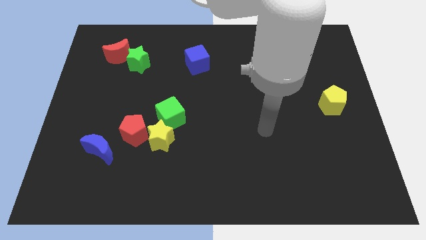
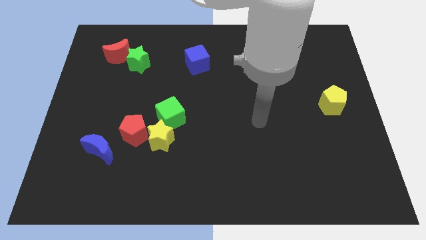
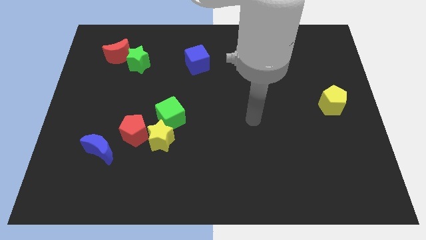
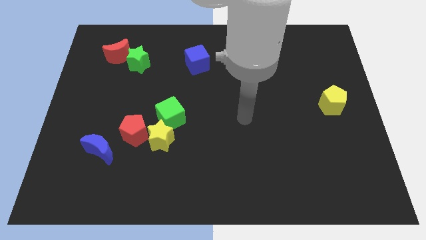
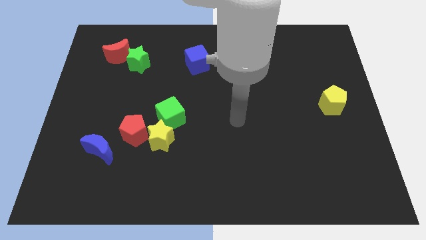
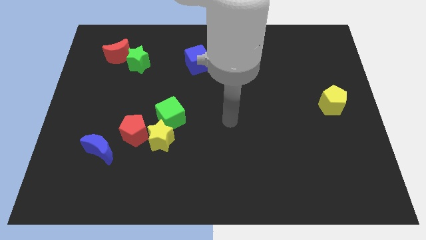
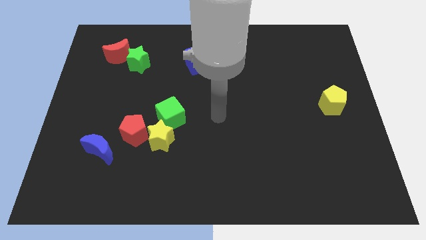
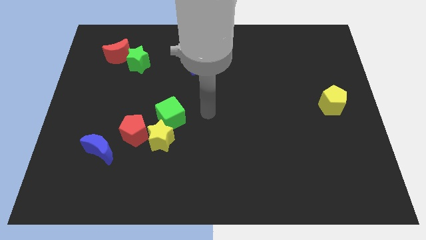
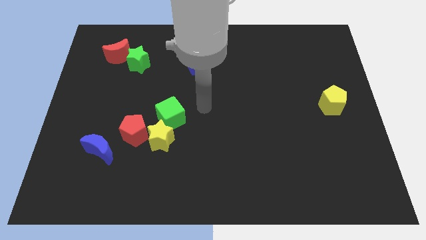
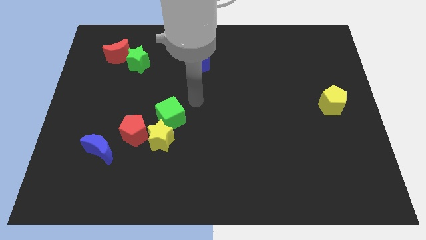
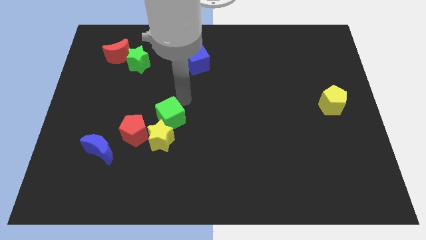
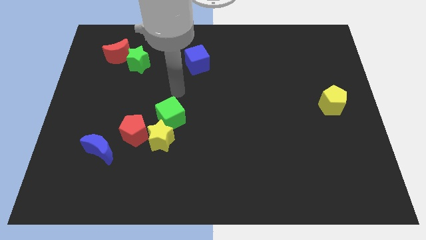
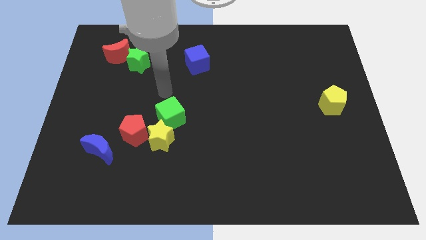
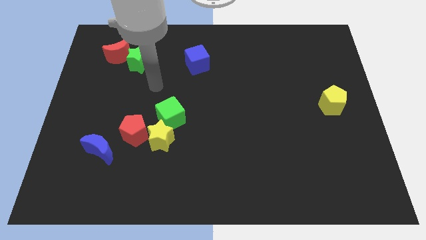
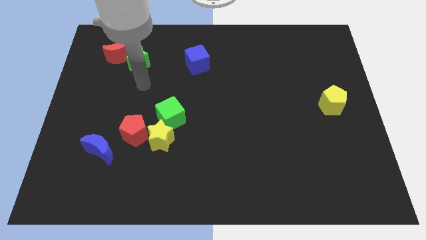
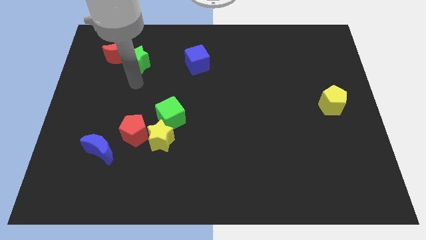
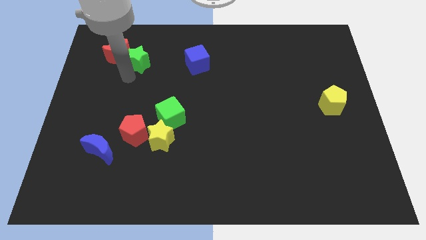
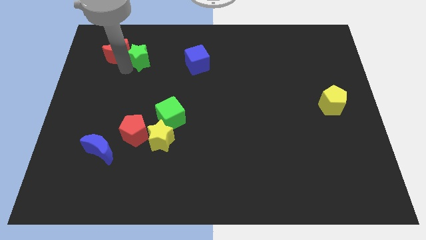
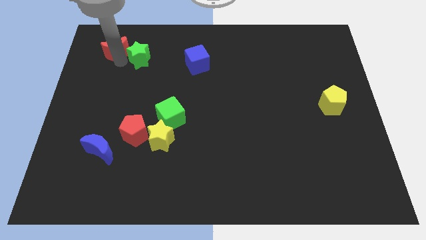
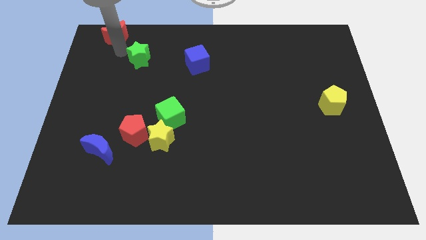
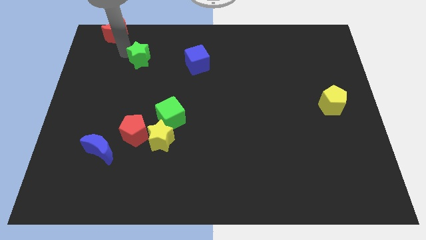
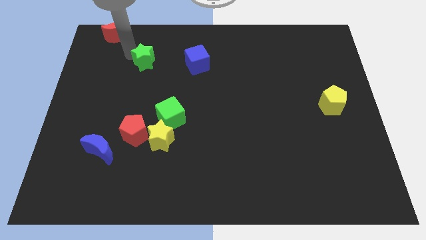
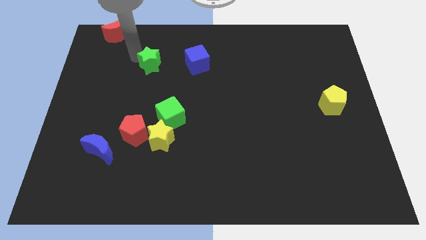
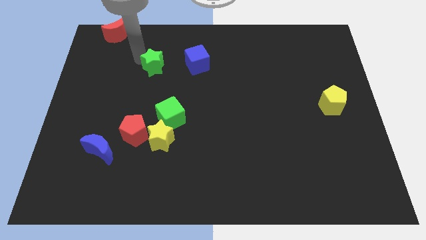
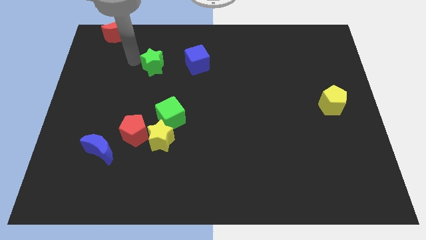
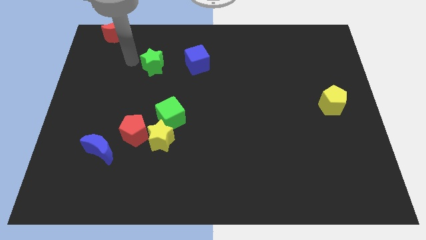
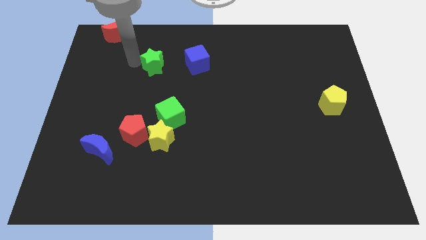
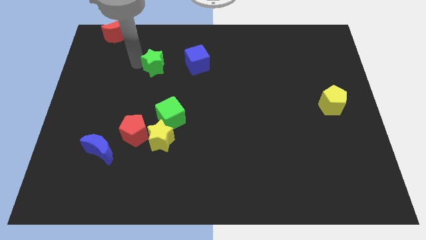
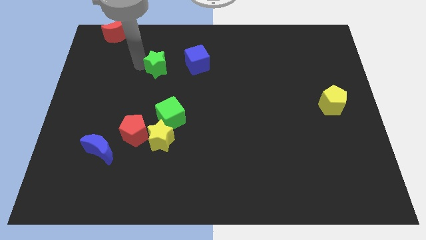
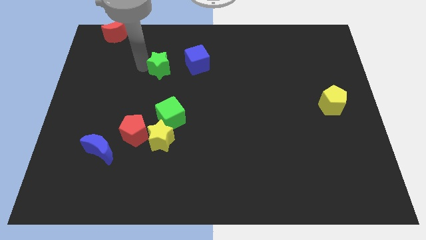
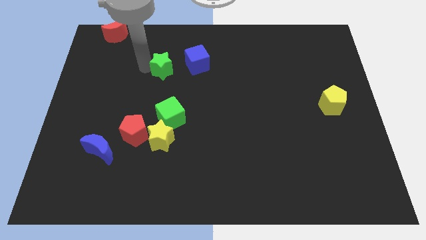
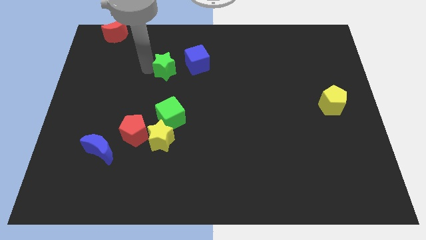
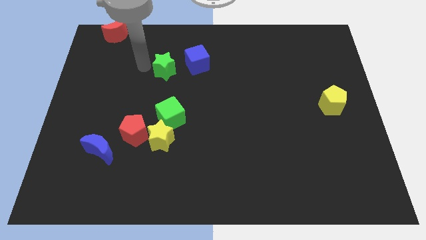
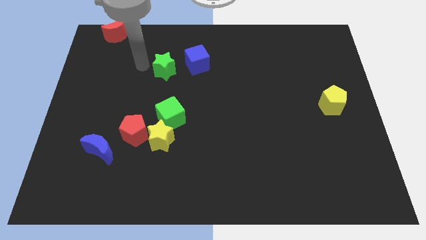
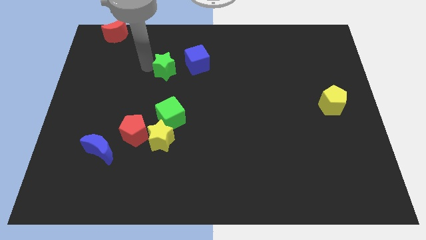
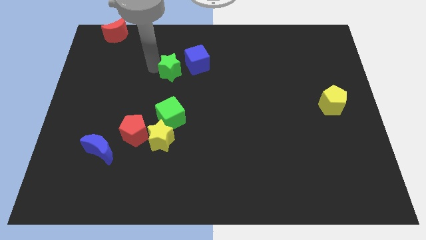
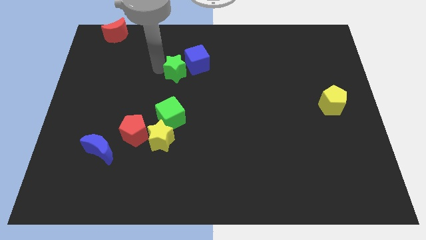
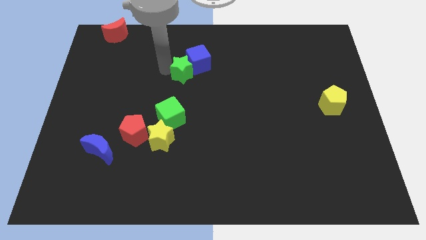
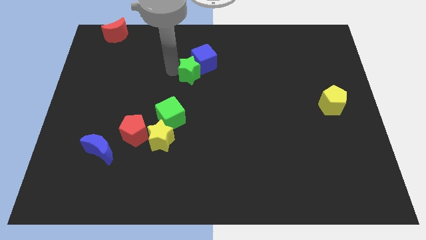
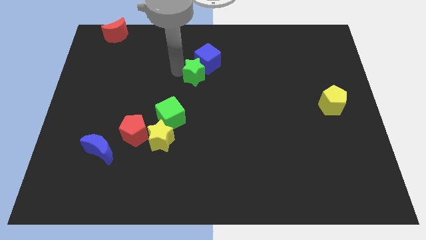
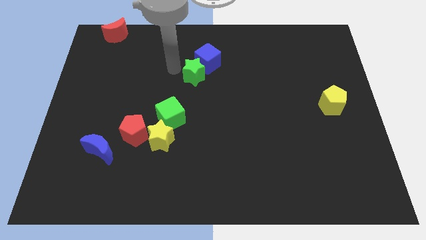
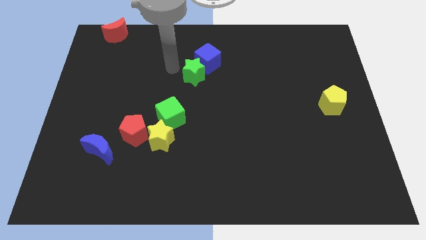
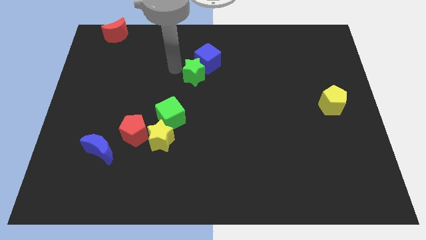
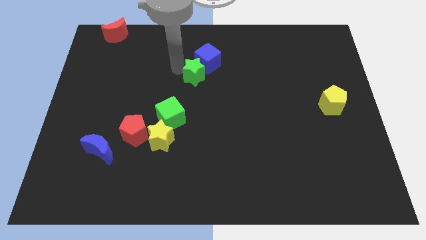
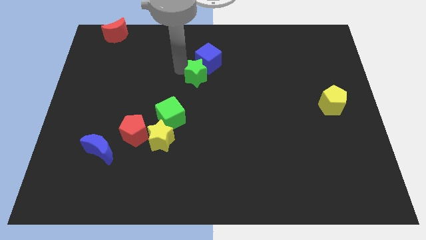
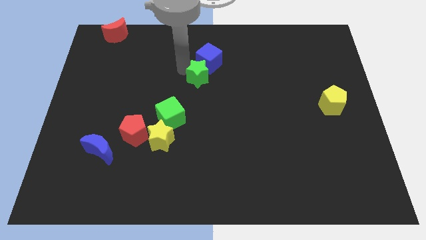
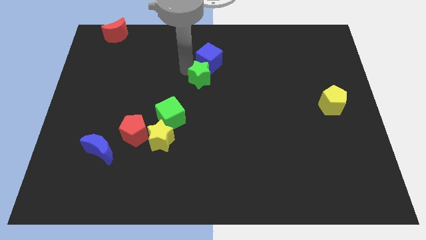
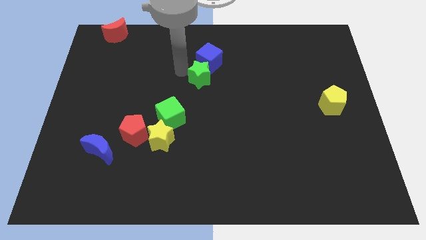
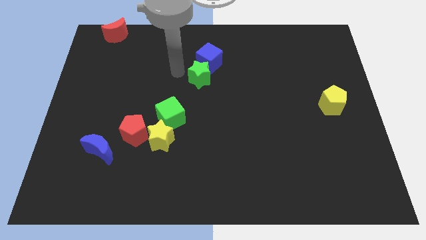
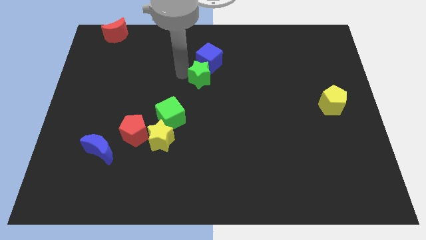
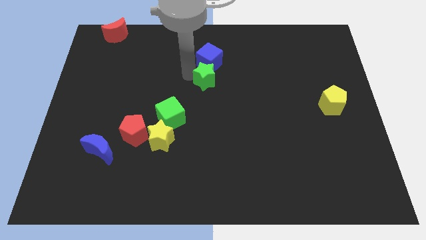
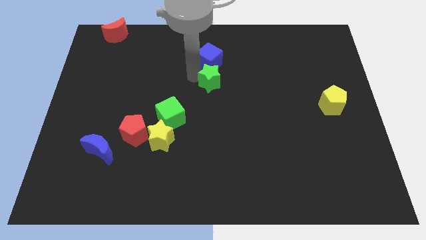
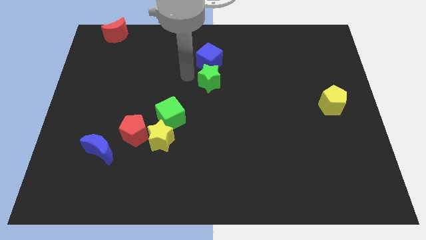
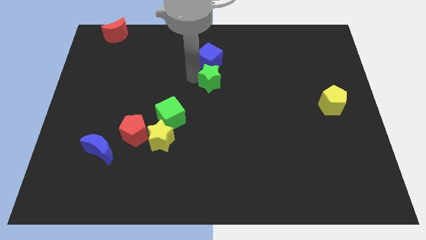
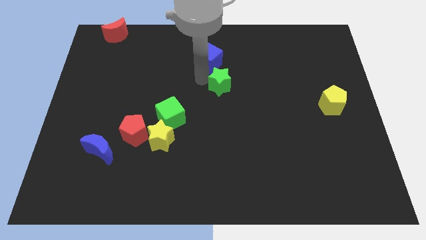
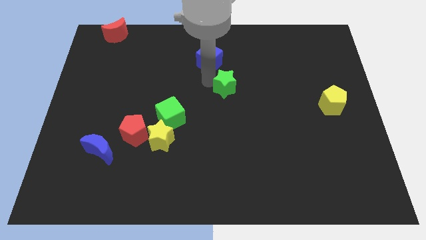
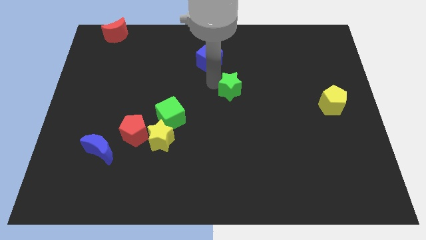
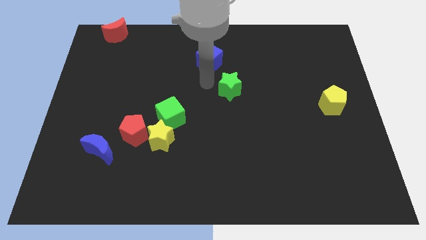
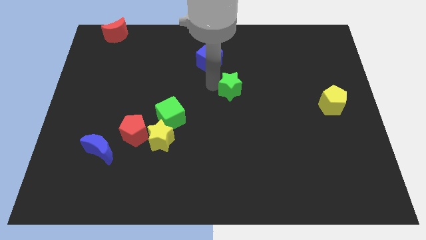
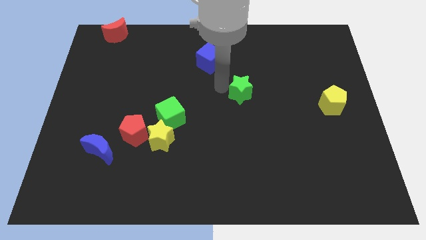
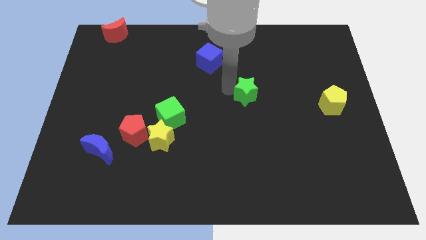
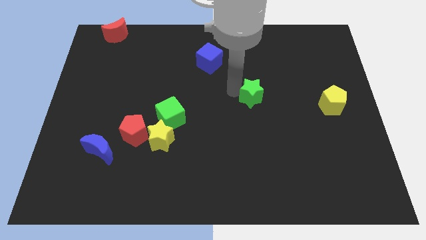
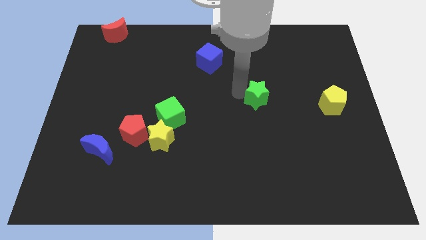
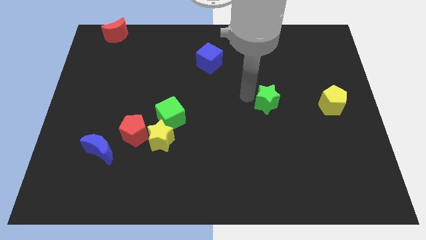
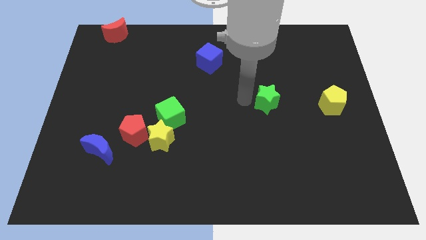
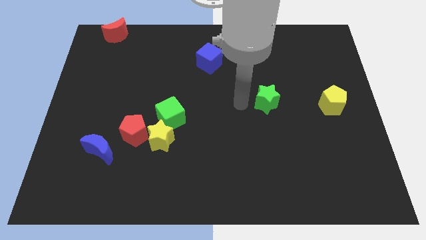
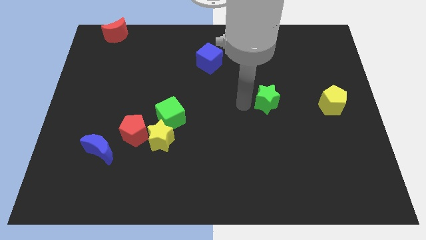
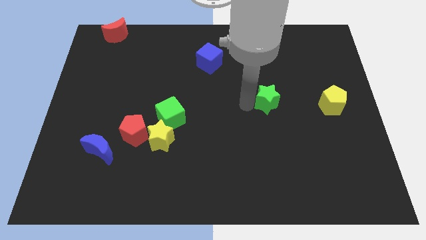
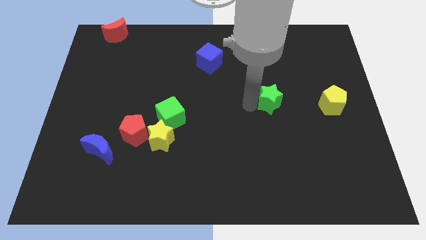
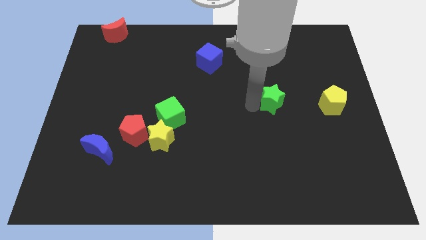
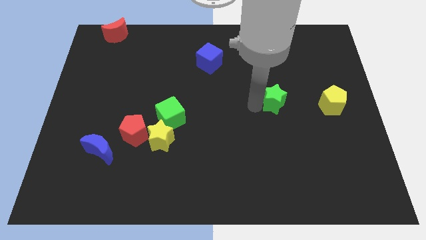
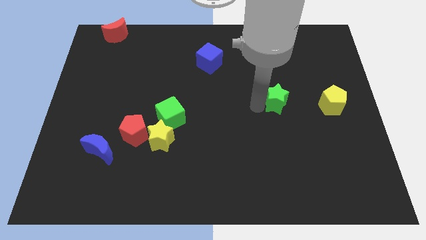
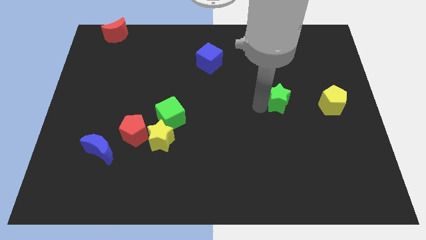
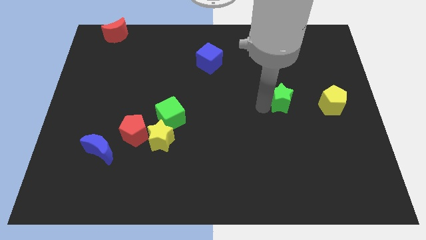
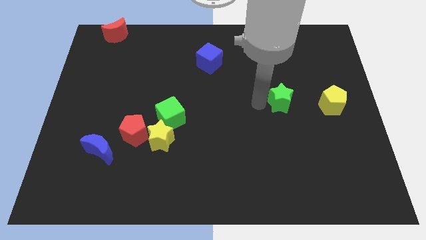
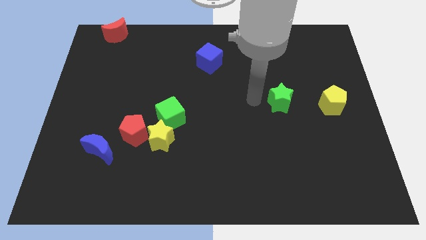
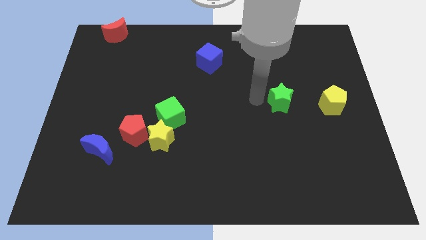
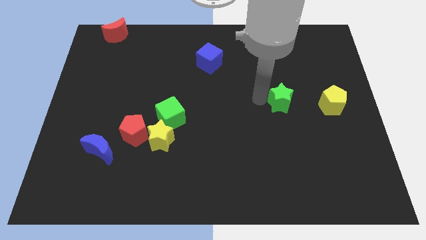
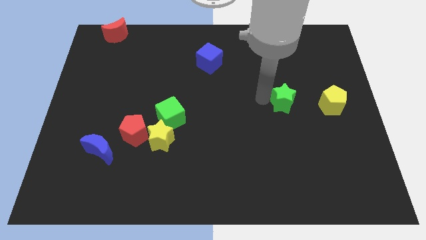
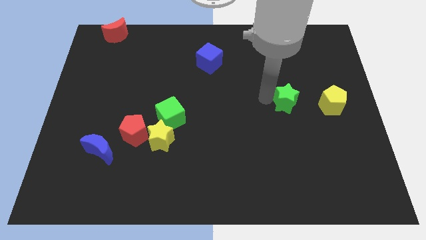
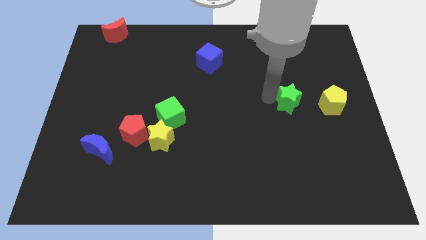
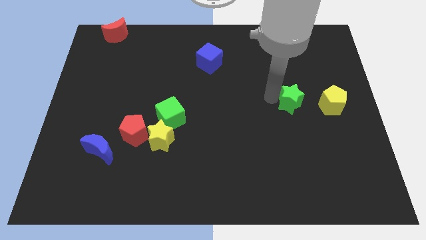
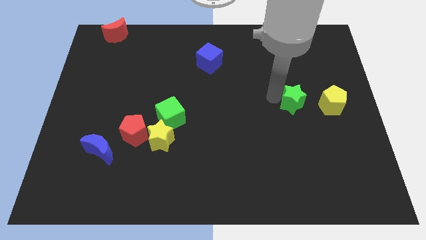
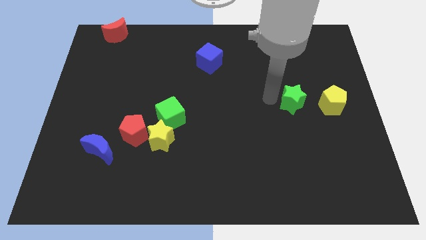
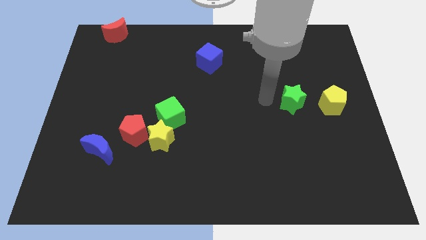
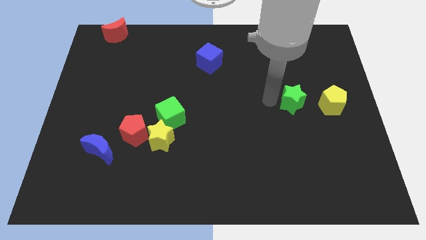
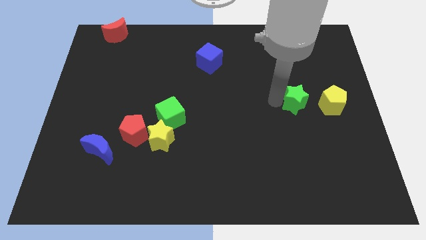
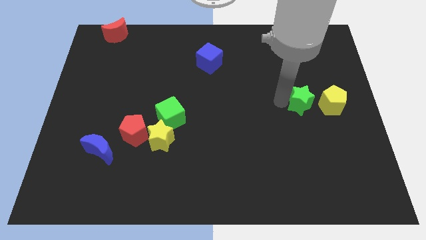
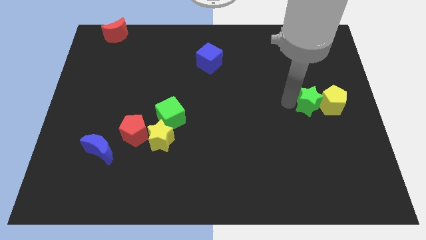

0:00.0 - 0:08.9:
push the green star to the yellow pentagon
